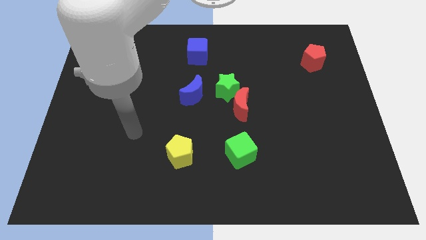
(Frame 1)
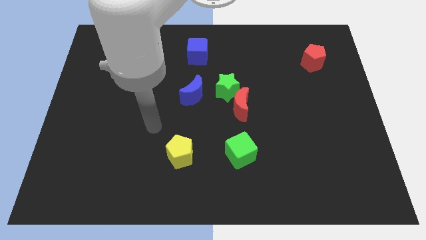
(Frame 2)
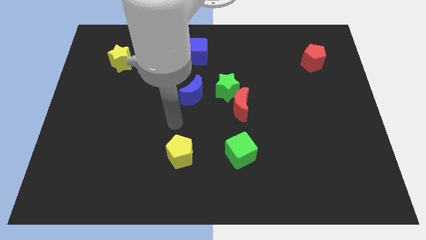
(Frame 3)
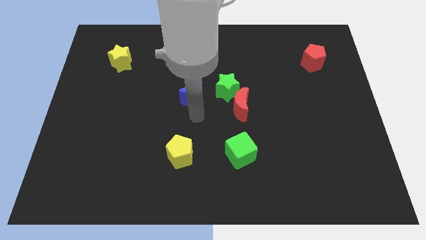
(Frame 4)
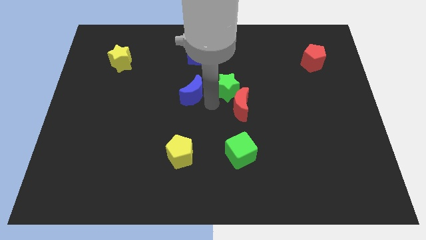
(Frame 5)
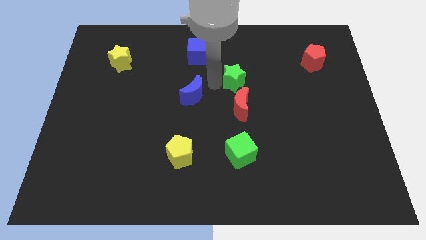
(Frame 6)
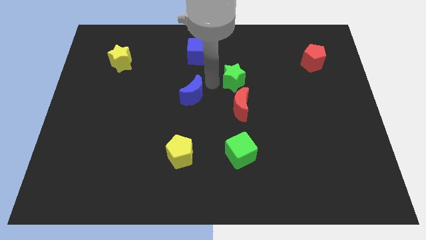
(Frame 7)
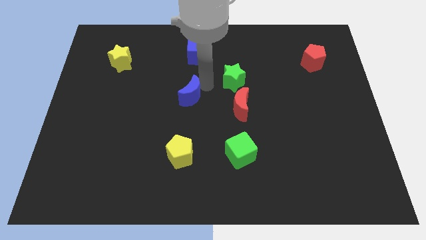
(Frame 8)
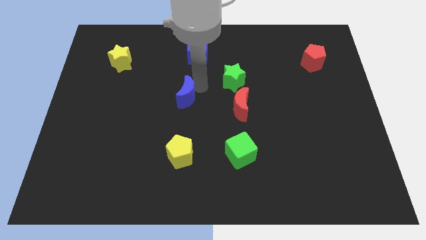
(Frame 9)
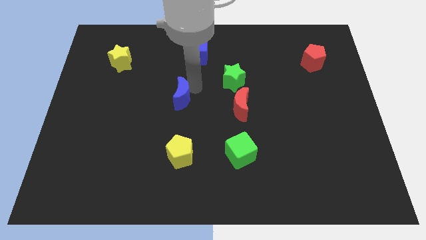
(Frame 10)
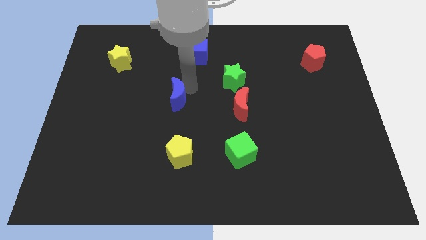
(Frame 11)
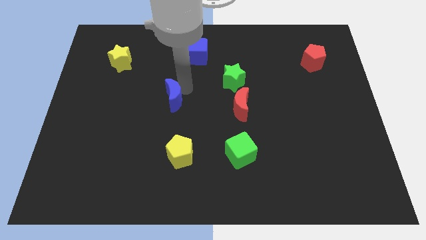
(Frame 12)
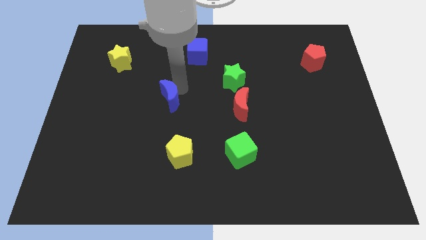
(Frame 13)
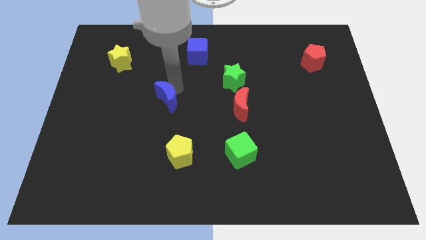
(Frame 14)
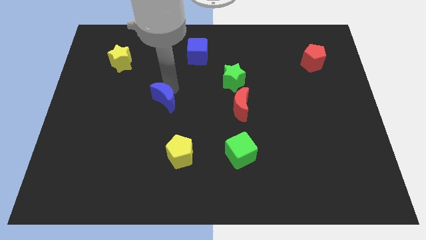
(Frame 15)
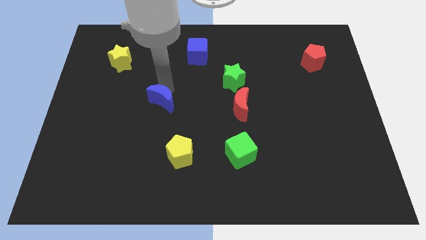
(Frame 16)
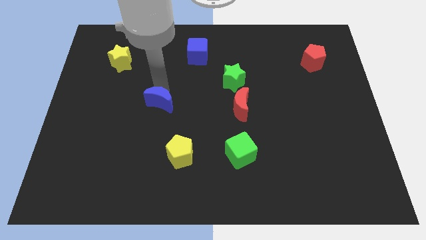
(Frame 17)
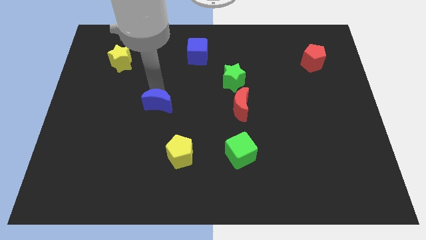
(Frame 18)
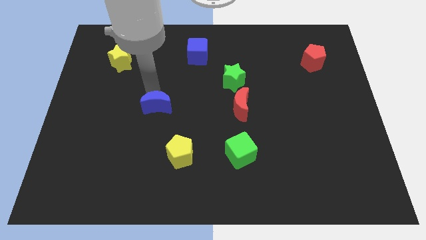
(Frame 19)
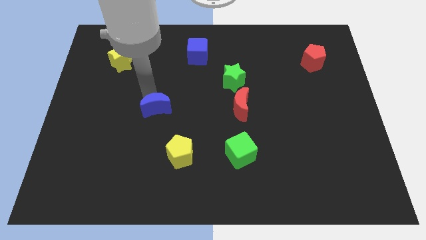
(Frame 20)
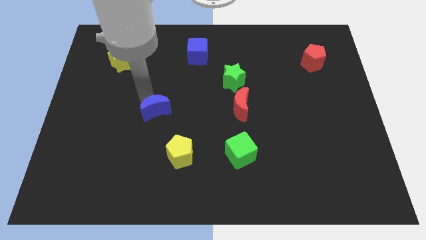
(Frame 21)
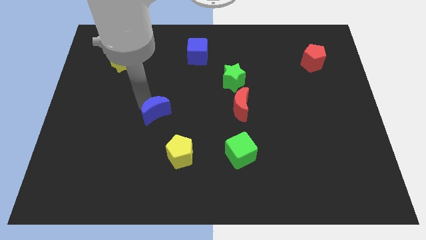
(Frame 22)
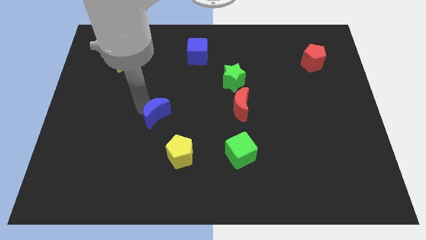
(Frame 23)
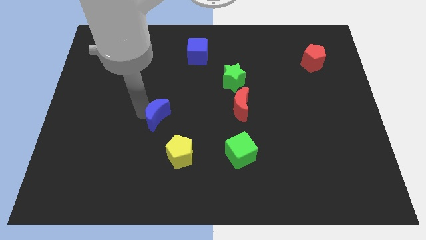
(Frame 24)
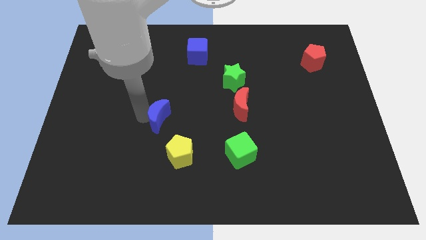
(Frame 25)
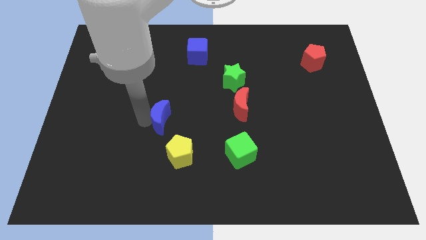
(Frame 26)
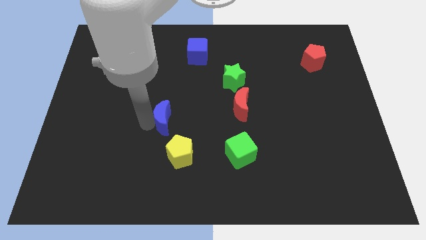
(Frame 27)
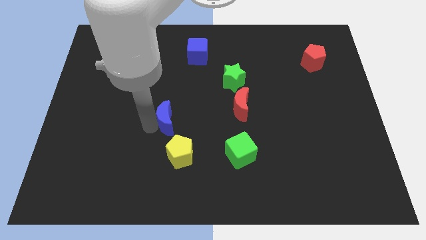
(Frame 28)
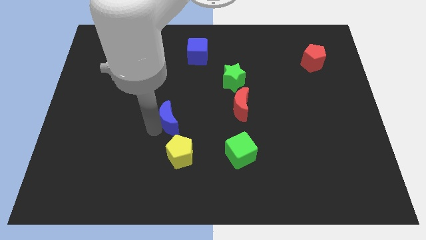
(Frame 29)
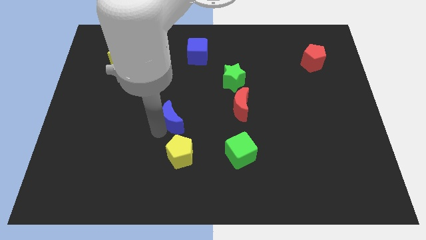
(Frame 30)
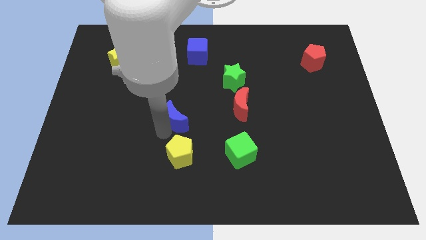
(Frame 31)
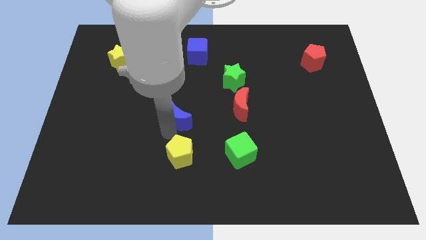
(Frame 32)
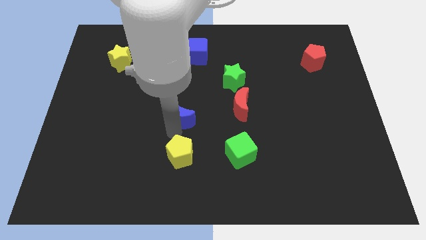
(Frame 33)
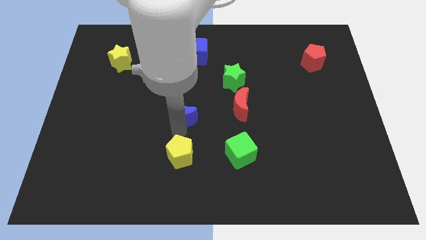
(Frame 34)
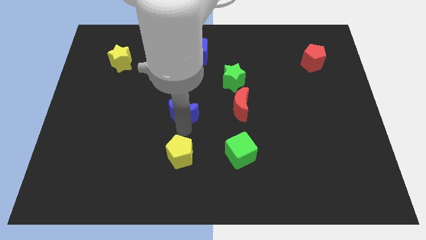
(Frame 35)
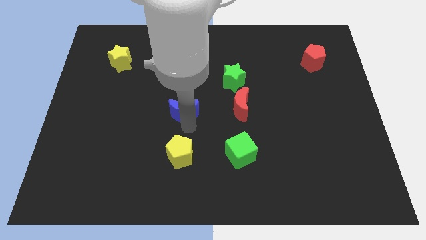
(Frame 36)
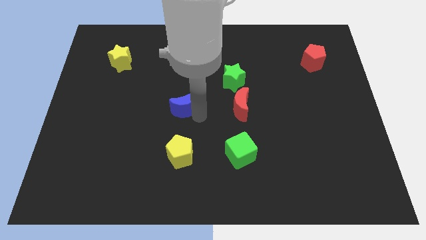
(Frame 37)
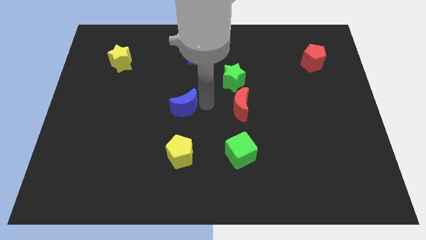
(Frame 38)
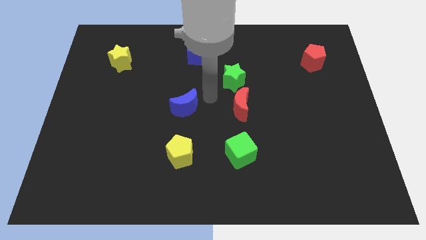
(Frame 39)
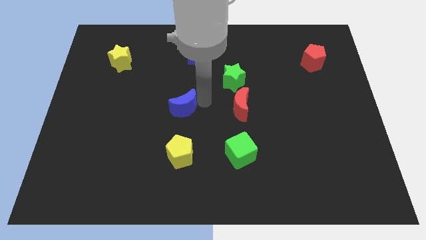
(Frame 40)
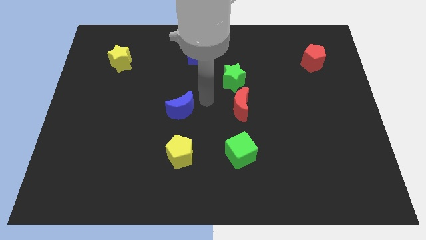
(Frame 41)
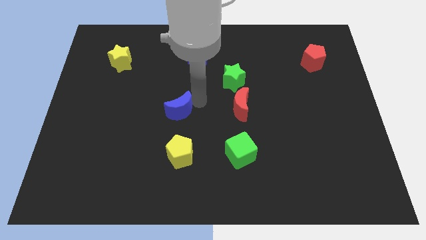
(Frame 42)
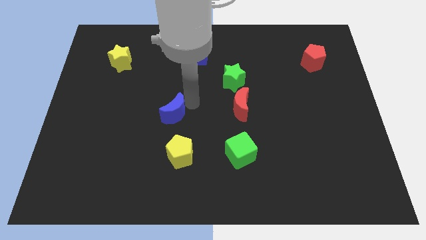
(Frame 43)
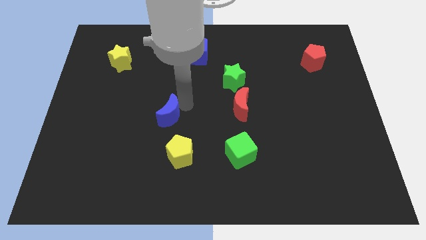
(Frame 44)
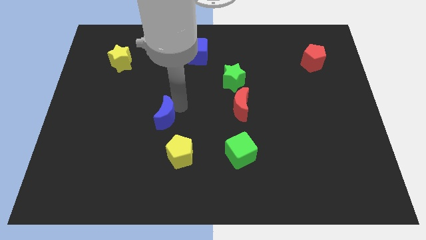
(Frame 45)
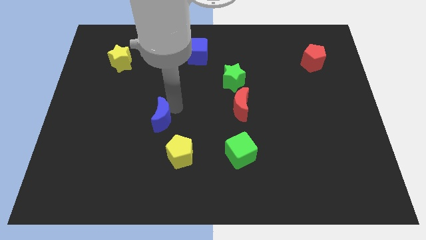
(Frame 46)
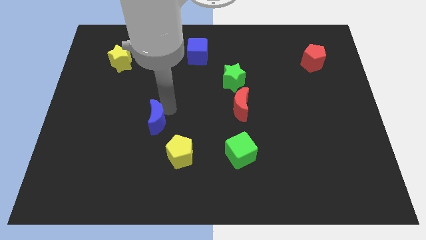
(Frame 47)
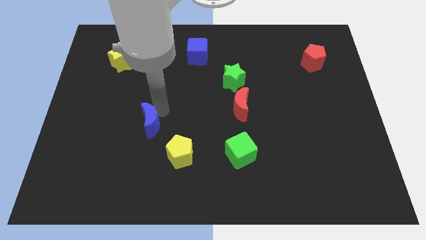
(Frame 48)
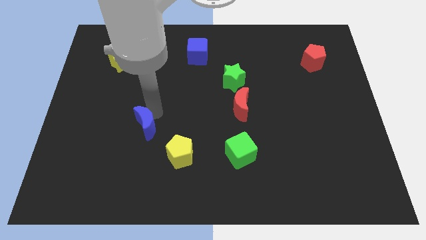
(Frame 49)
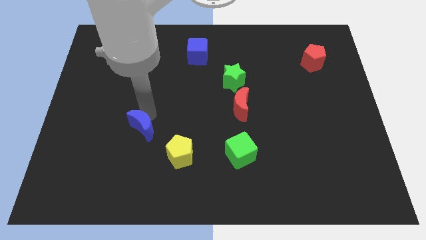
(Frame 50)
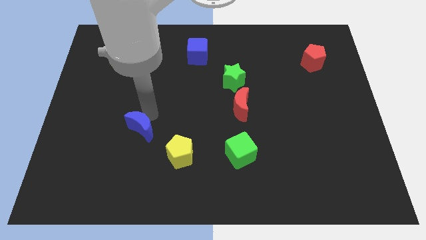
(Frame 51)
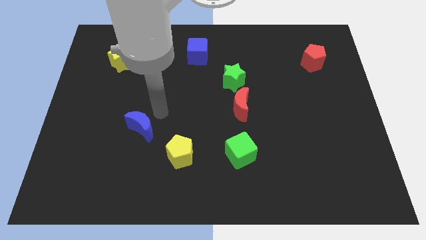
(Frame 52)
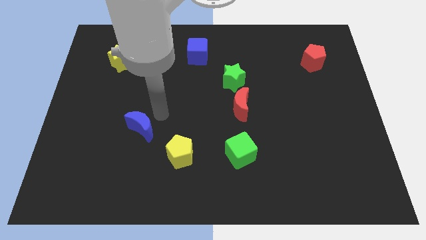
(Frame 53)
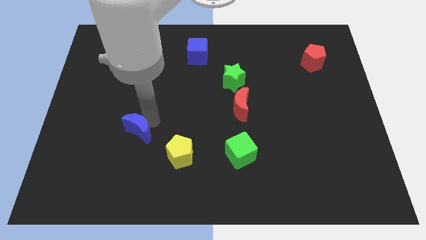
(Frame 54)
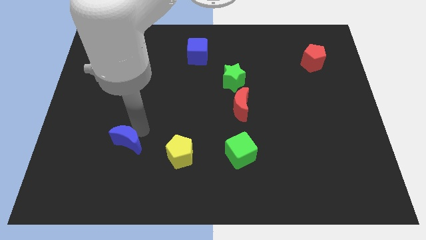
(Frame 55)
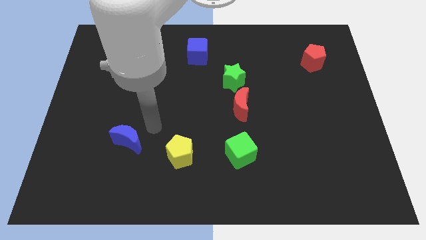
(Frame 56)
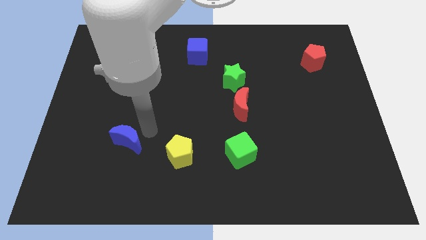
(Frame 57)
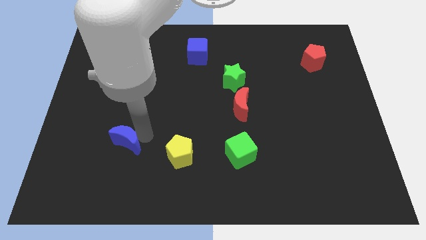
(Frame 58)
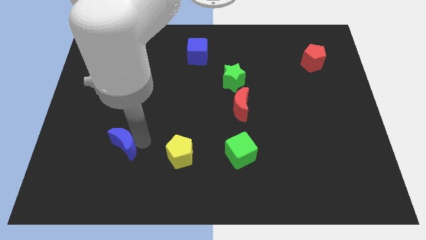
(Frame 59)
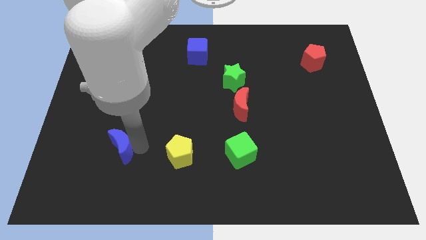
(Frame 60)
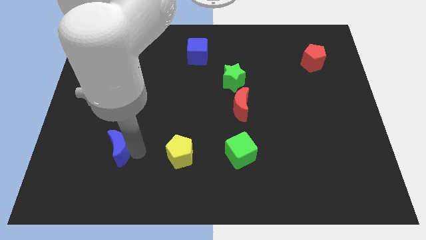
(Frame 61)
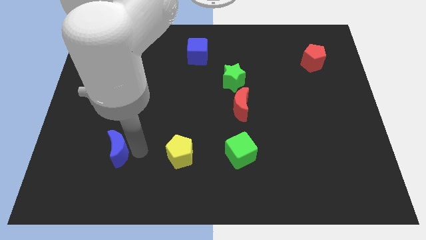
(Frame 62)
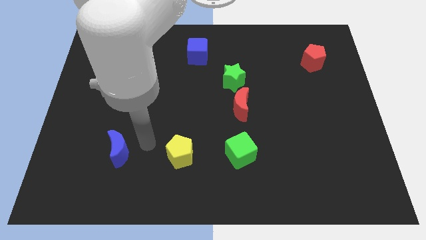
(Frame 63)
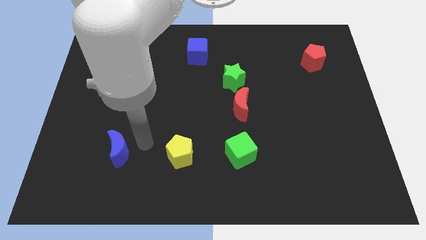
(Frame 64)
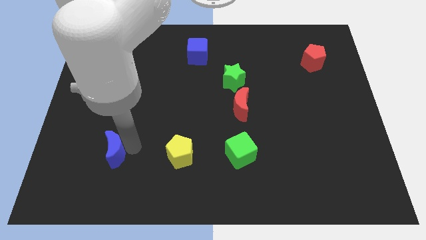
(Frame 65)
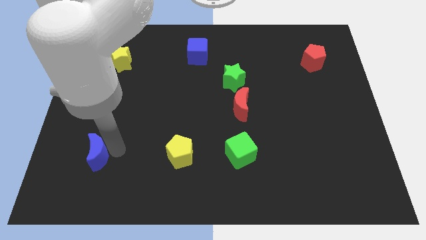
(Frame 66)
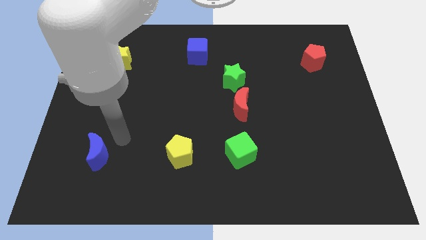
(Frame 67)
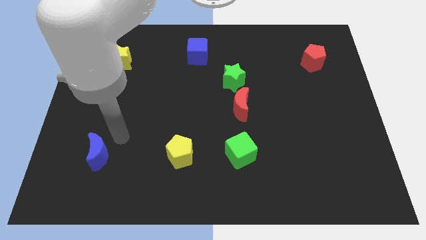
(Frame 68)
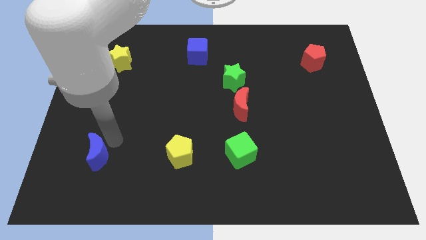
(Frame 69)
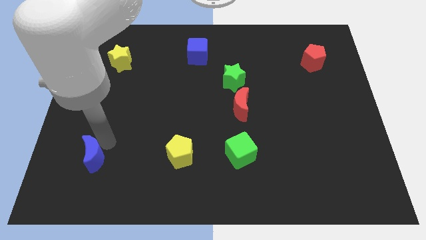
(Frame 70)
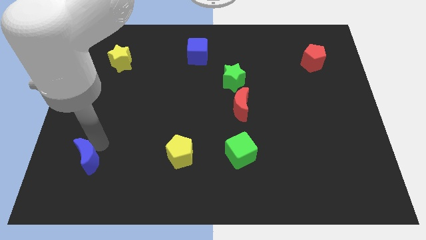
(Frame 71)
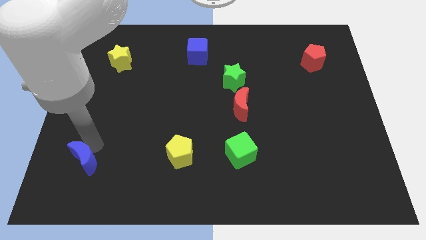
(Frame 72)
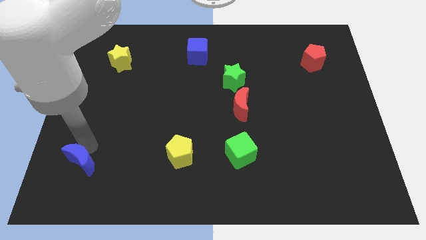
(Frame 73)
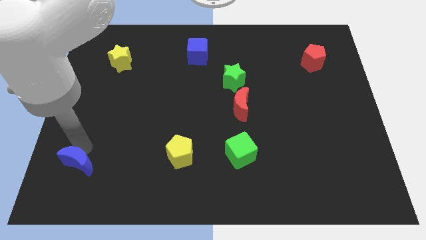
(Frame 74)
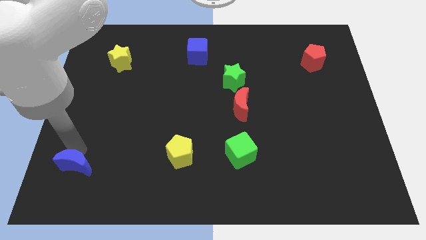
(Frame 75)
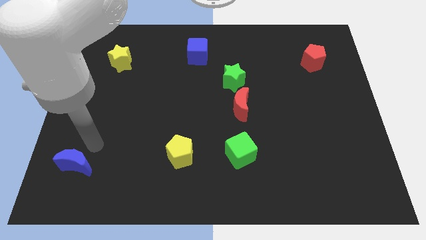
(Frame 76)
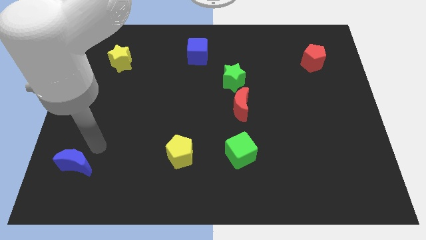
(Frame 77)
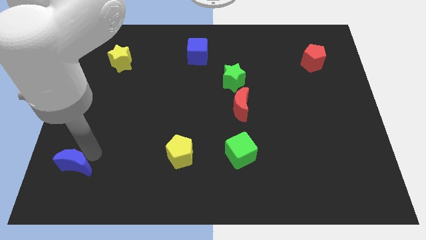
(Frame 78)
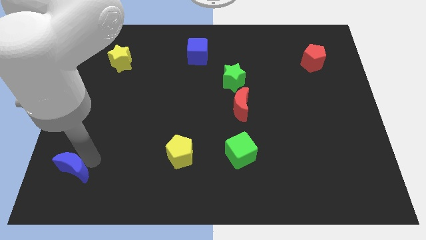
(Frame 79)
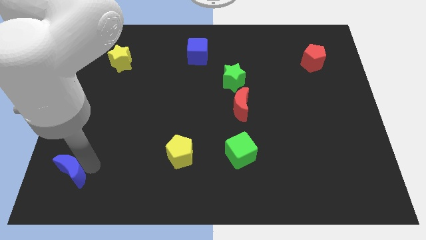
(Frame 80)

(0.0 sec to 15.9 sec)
slide the blue moon to the bottom left
